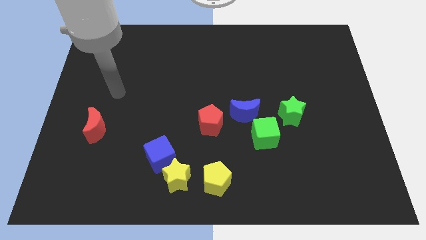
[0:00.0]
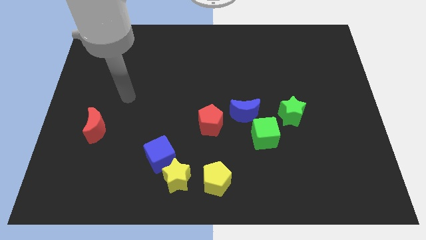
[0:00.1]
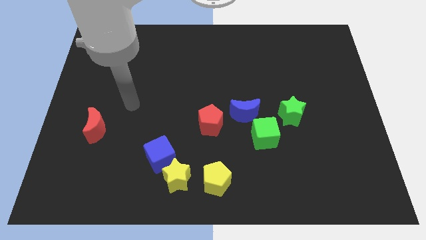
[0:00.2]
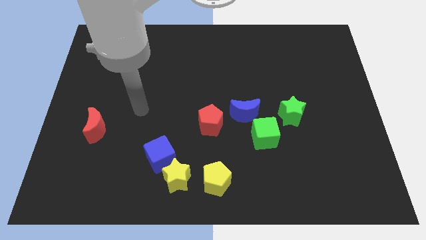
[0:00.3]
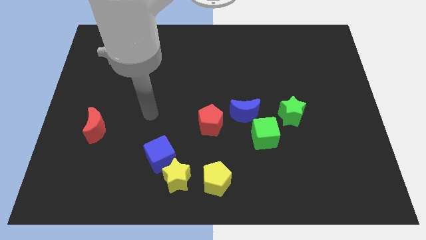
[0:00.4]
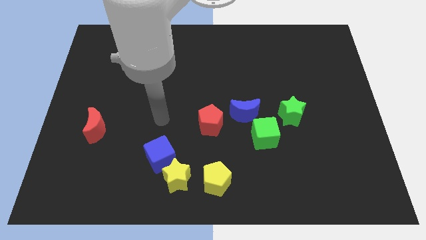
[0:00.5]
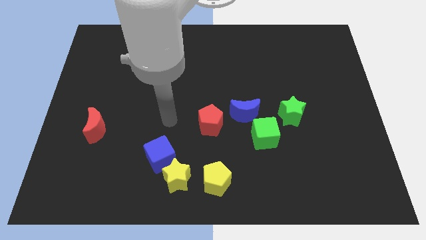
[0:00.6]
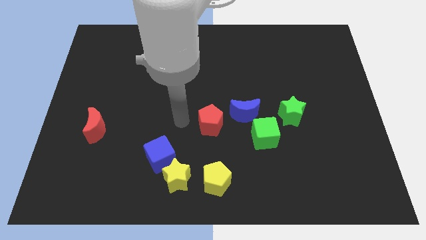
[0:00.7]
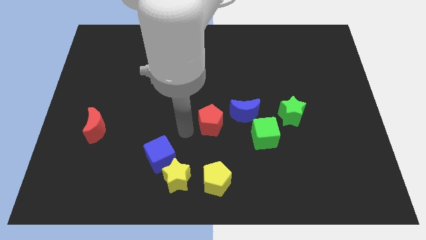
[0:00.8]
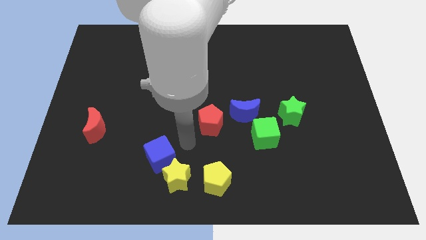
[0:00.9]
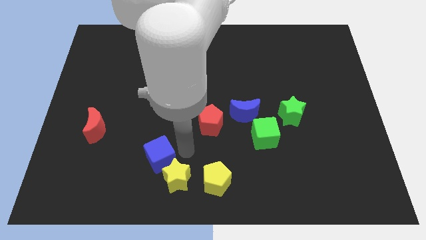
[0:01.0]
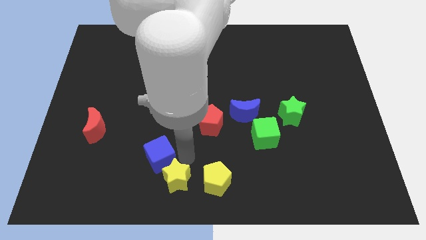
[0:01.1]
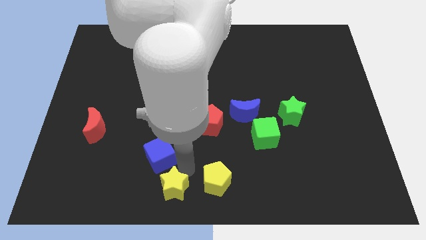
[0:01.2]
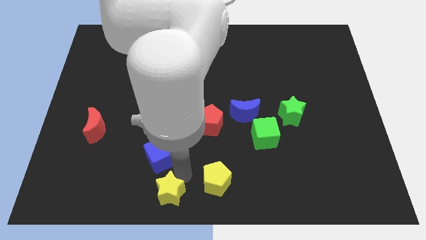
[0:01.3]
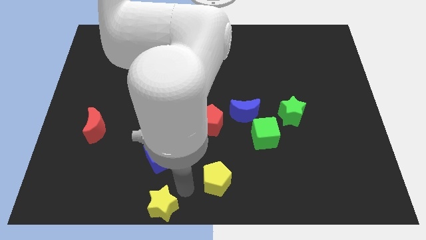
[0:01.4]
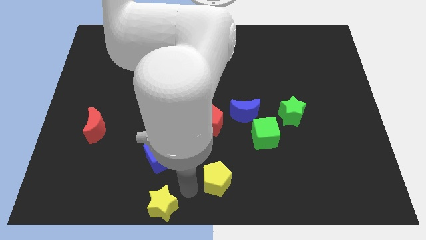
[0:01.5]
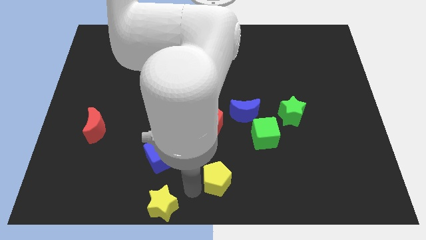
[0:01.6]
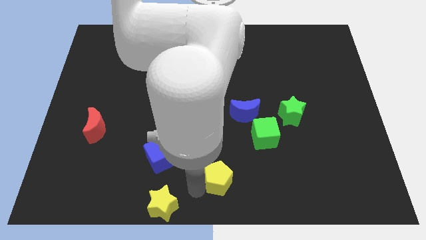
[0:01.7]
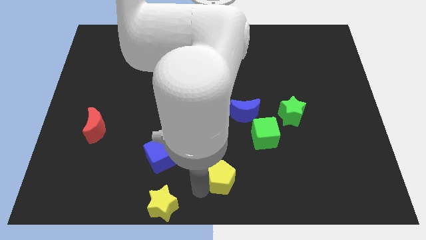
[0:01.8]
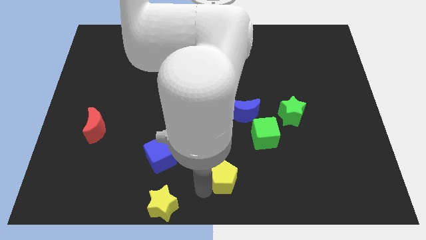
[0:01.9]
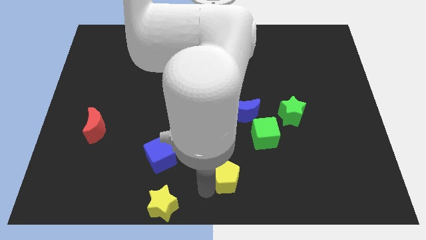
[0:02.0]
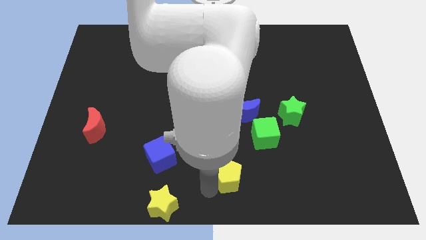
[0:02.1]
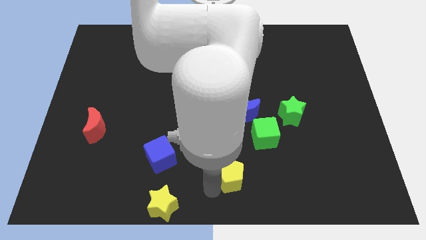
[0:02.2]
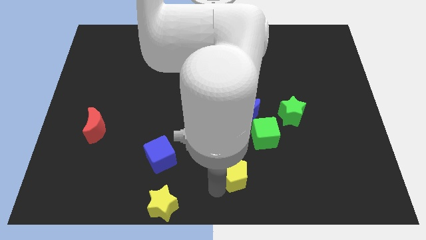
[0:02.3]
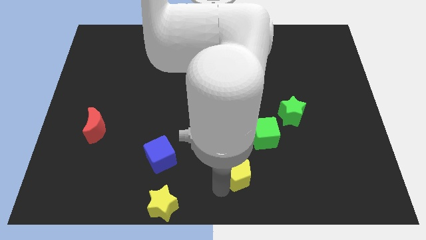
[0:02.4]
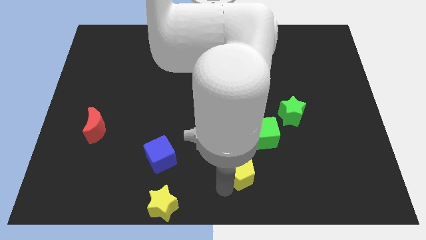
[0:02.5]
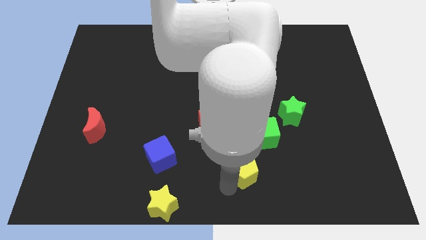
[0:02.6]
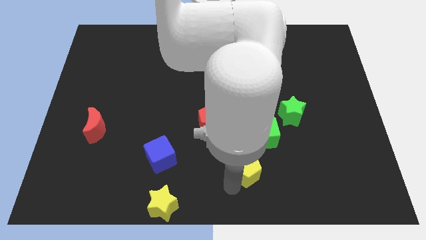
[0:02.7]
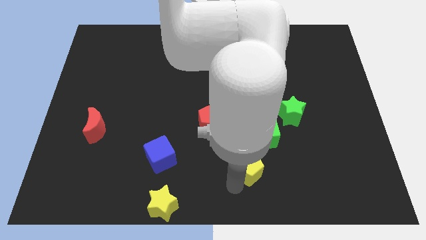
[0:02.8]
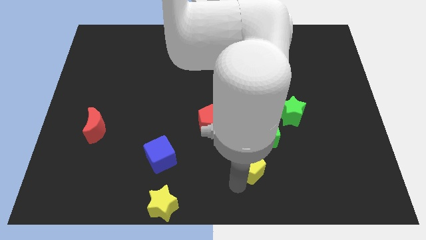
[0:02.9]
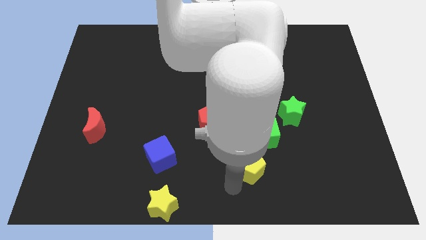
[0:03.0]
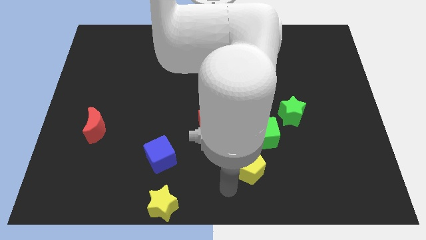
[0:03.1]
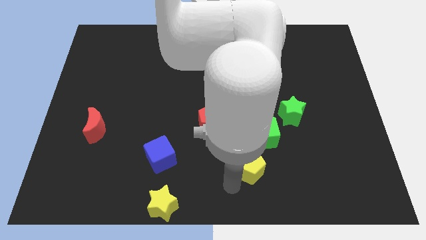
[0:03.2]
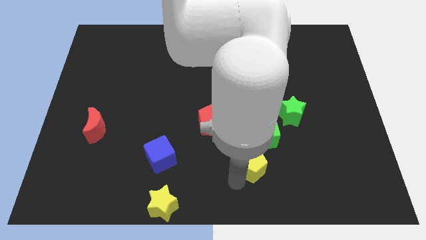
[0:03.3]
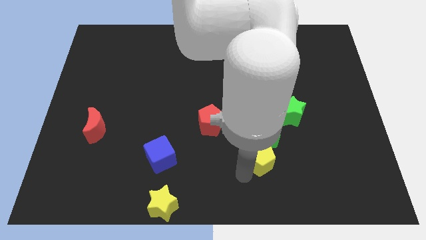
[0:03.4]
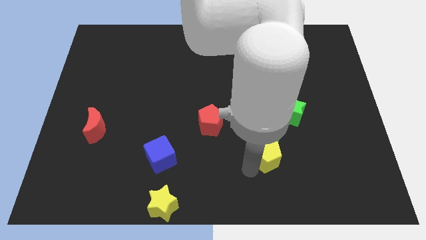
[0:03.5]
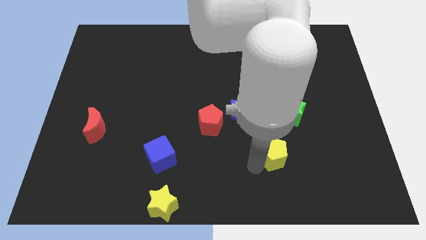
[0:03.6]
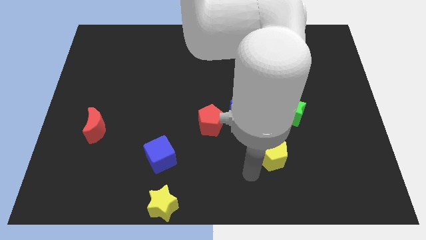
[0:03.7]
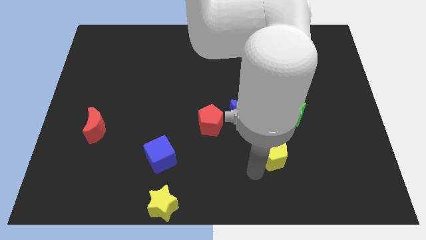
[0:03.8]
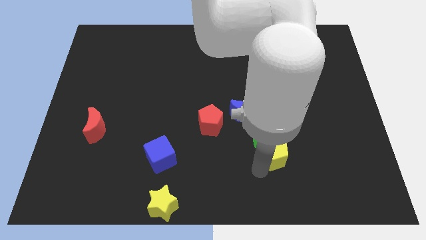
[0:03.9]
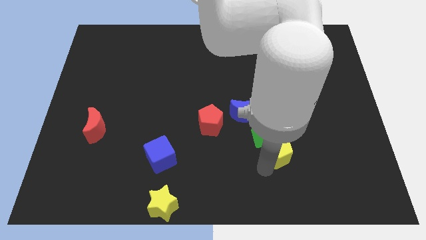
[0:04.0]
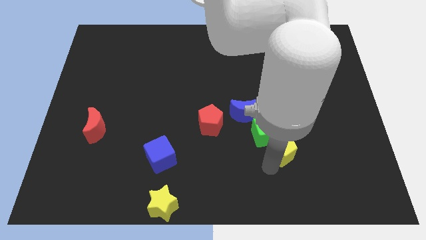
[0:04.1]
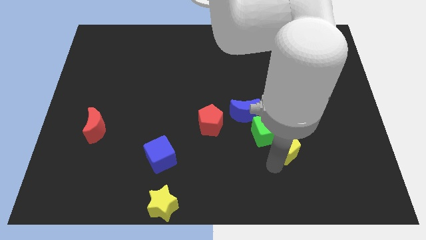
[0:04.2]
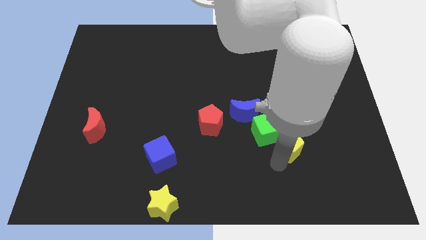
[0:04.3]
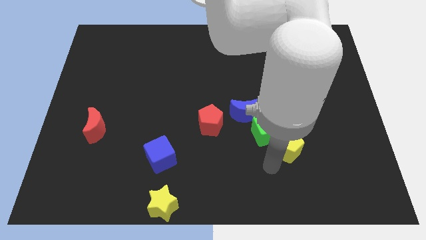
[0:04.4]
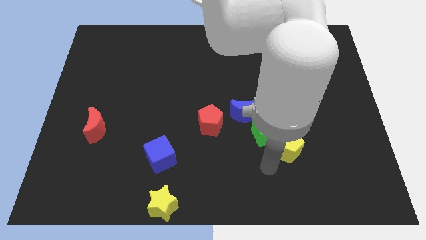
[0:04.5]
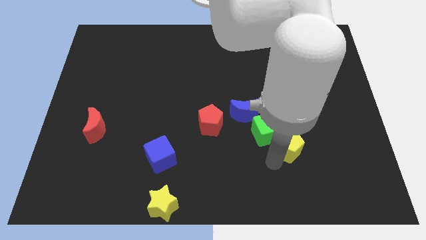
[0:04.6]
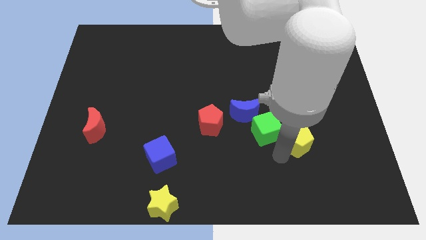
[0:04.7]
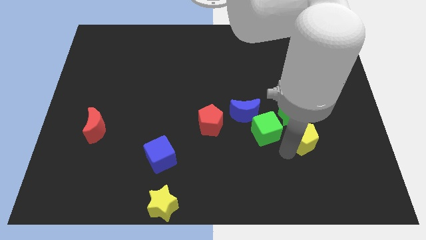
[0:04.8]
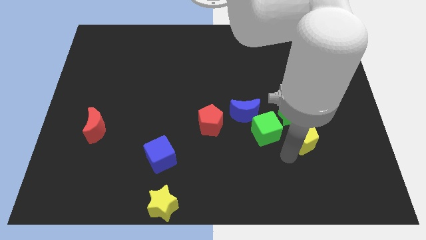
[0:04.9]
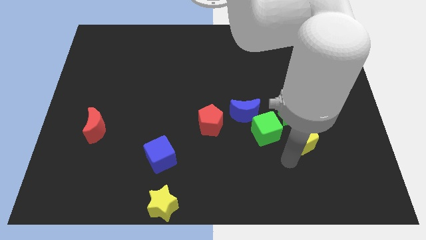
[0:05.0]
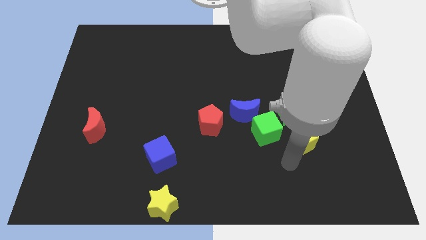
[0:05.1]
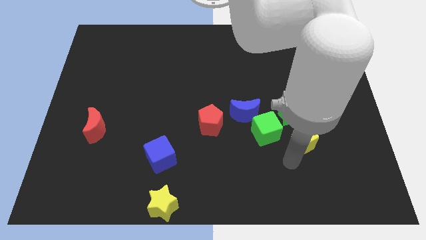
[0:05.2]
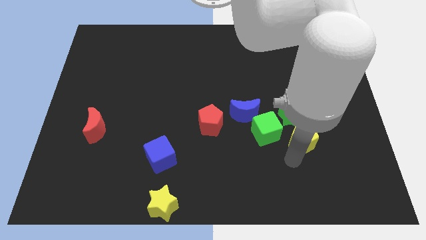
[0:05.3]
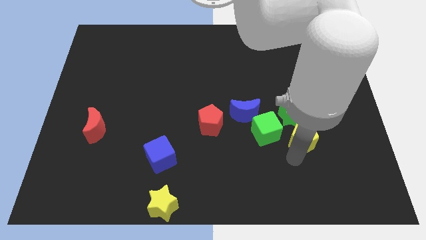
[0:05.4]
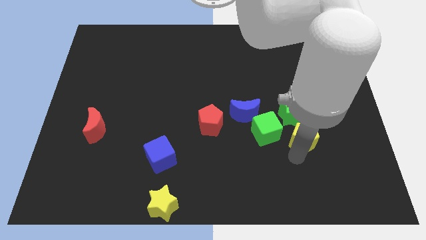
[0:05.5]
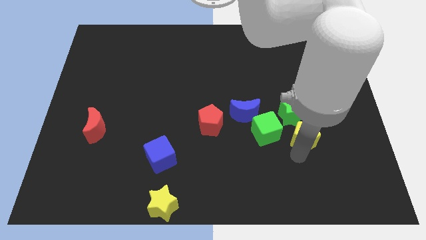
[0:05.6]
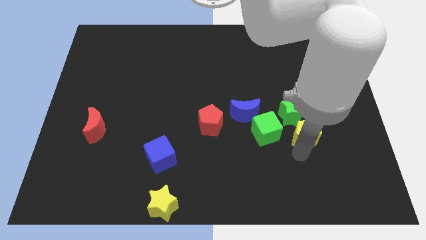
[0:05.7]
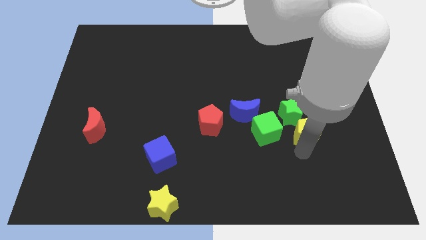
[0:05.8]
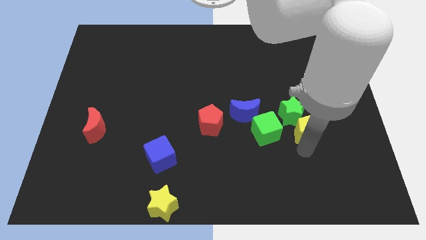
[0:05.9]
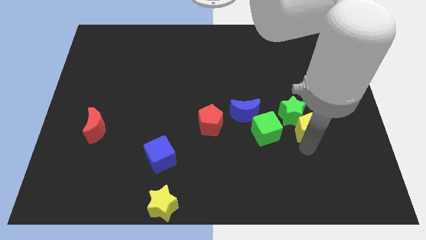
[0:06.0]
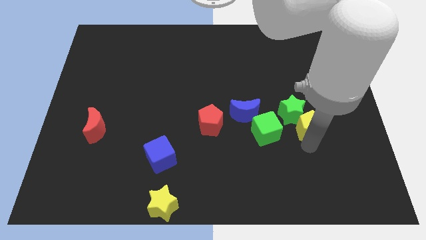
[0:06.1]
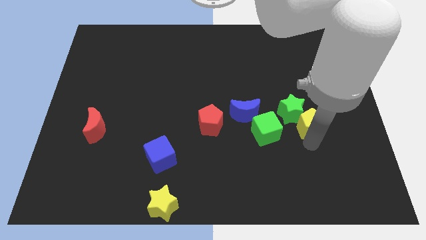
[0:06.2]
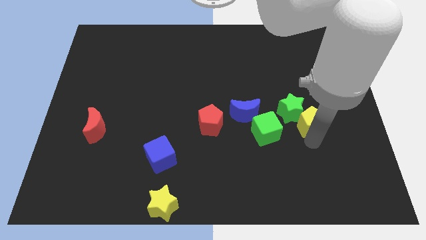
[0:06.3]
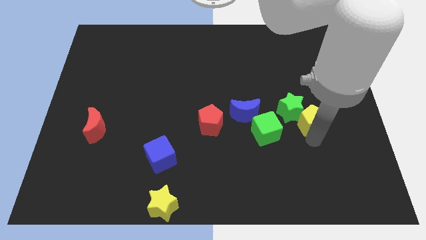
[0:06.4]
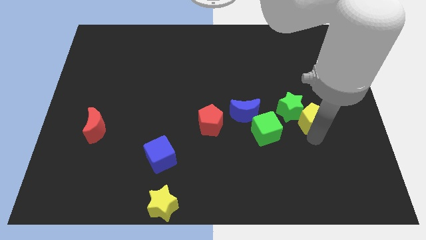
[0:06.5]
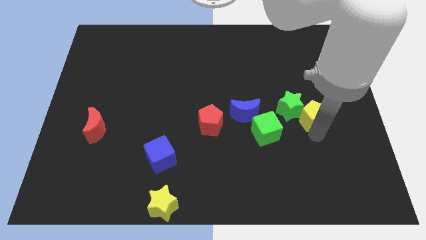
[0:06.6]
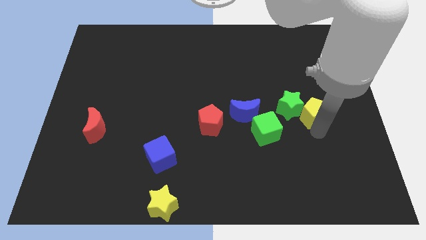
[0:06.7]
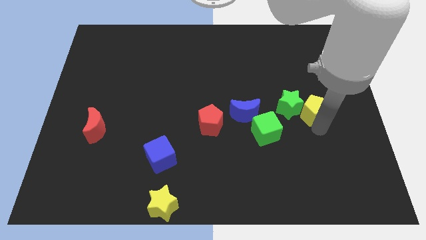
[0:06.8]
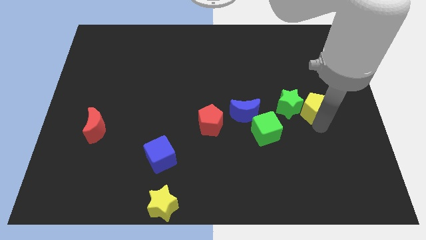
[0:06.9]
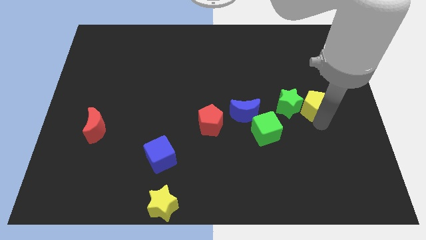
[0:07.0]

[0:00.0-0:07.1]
put the yellow pentagon to the top right of the green star

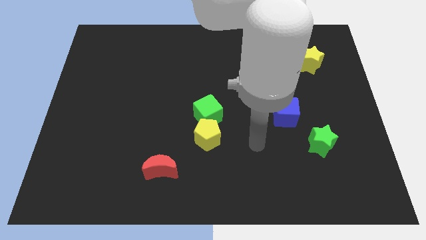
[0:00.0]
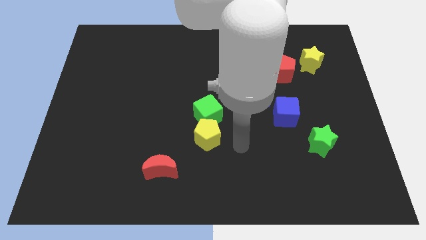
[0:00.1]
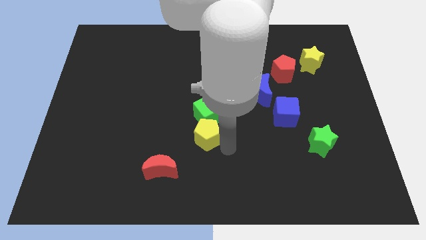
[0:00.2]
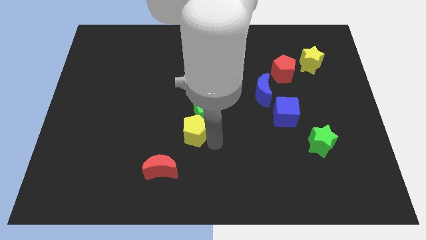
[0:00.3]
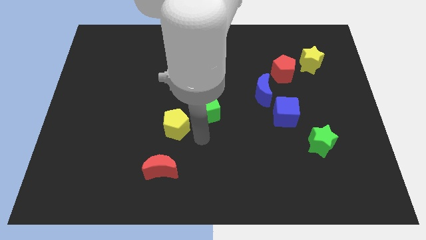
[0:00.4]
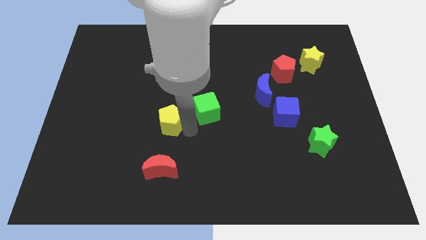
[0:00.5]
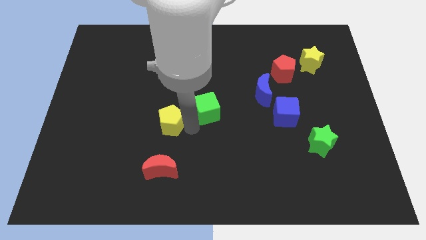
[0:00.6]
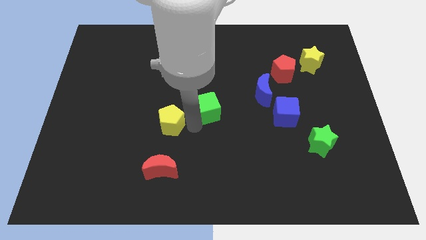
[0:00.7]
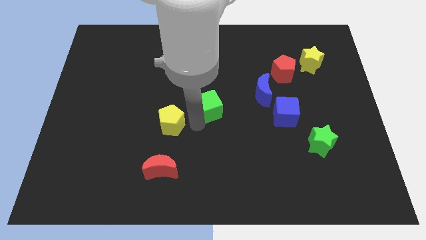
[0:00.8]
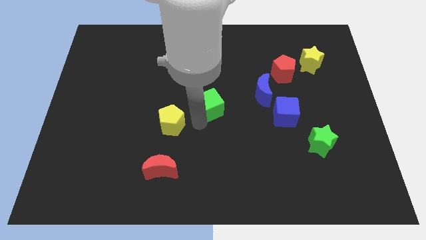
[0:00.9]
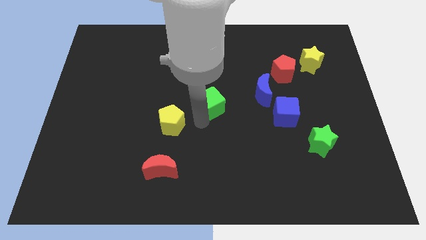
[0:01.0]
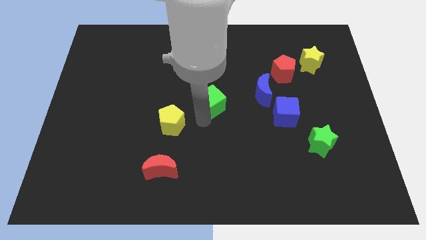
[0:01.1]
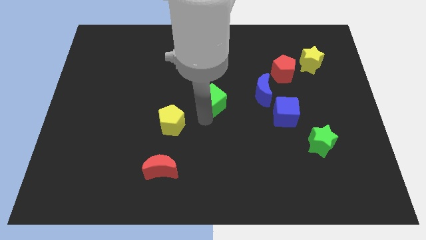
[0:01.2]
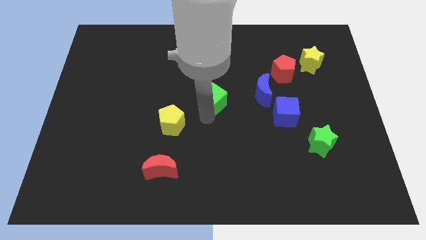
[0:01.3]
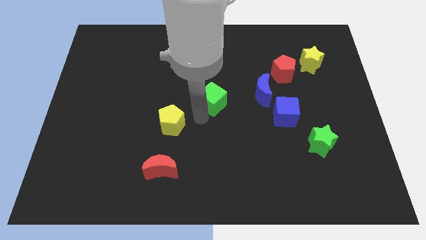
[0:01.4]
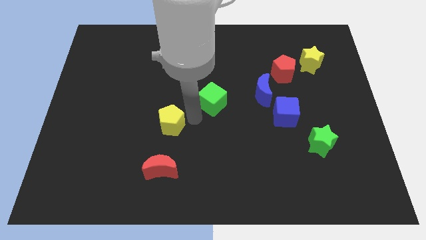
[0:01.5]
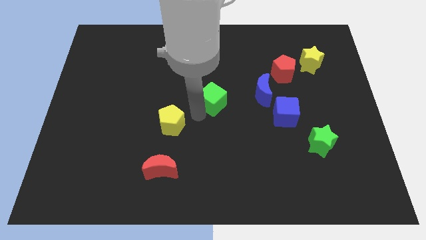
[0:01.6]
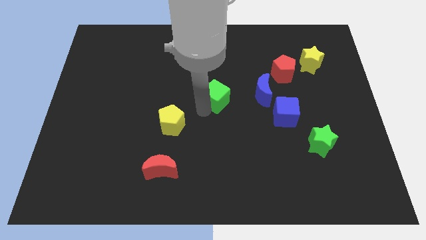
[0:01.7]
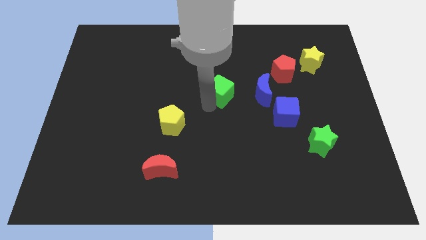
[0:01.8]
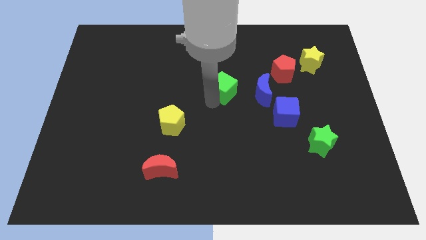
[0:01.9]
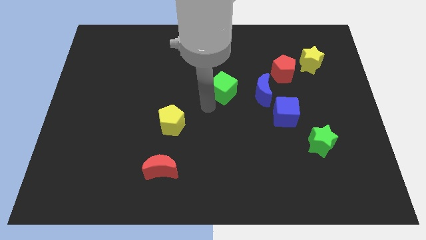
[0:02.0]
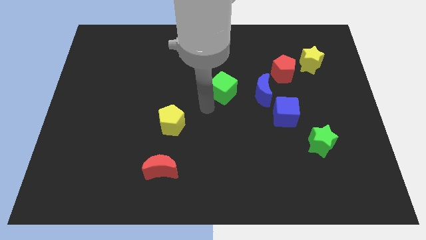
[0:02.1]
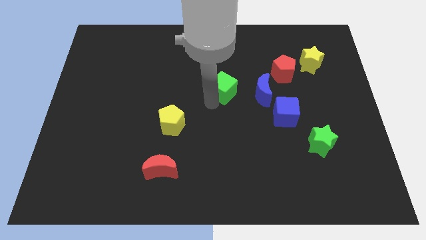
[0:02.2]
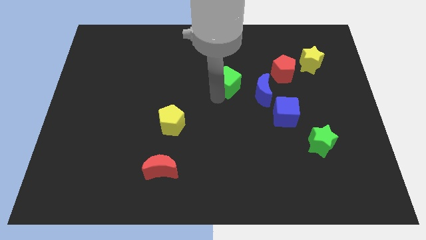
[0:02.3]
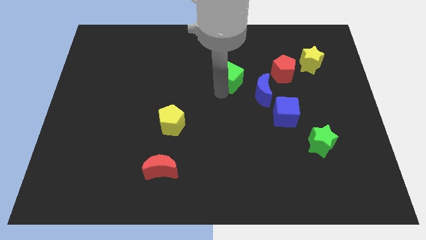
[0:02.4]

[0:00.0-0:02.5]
slide the green cube just left of the red pentagon
